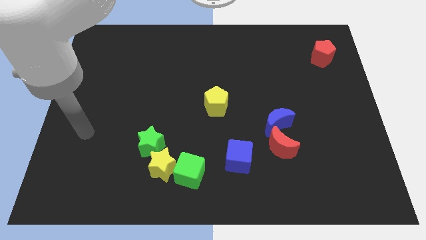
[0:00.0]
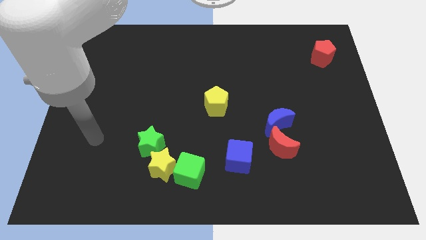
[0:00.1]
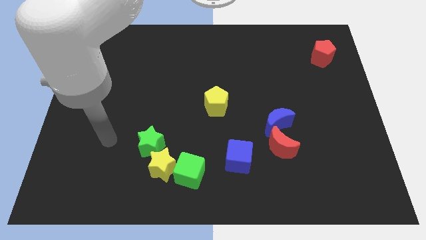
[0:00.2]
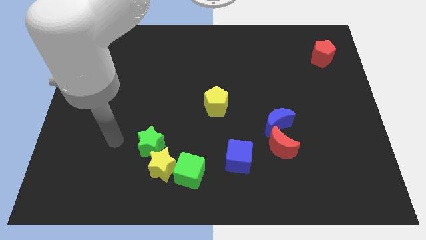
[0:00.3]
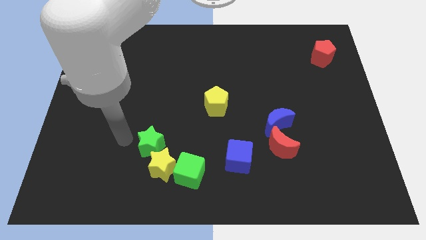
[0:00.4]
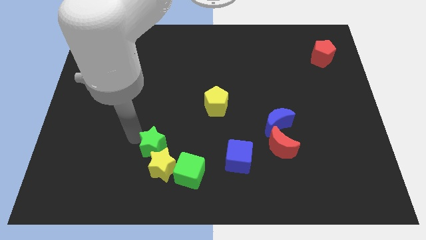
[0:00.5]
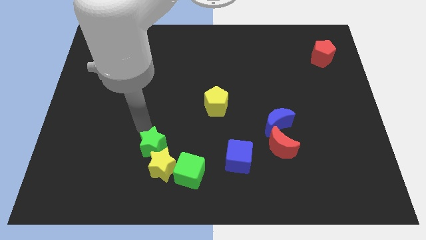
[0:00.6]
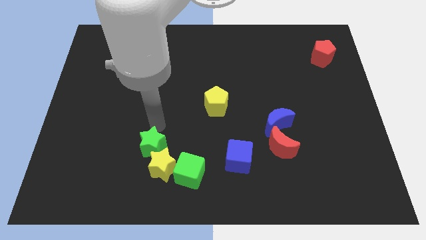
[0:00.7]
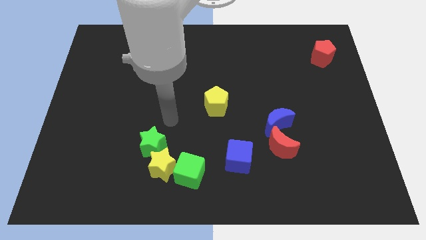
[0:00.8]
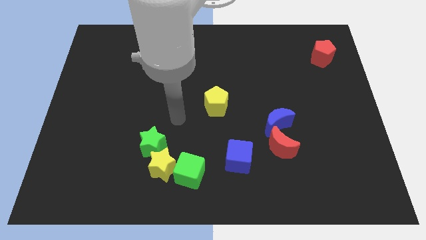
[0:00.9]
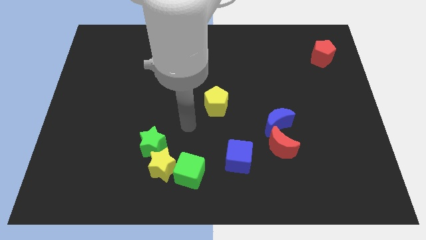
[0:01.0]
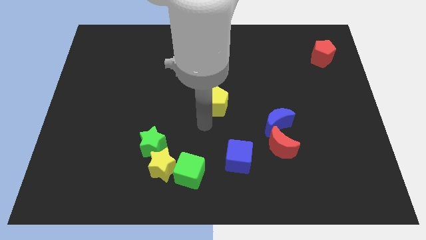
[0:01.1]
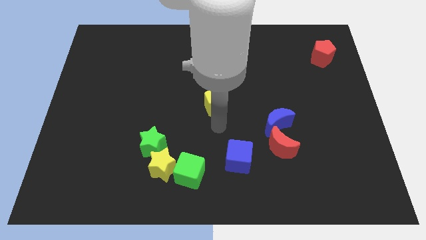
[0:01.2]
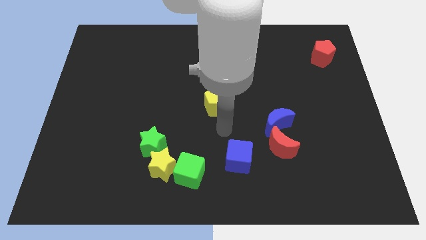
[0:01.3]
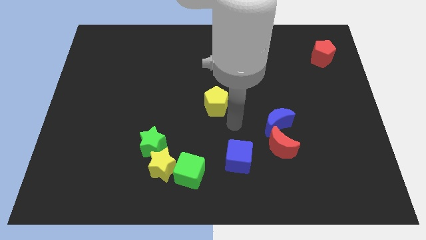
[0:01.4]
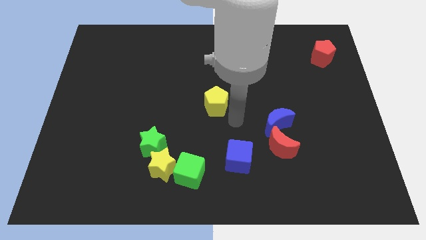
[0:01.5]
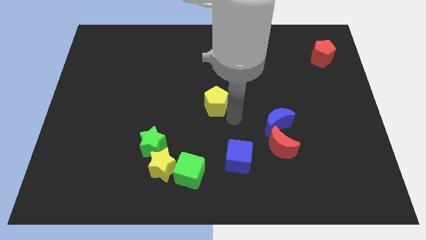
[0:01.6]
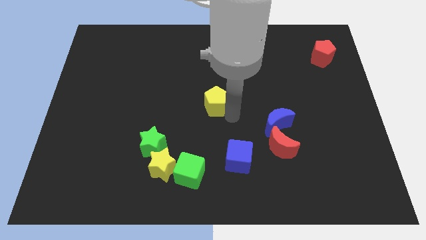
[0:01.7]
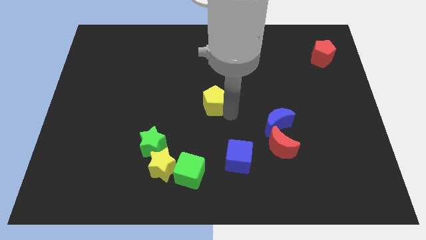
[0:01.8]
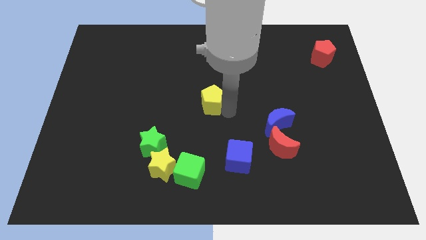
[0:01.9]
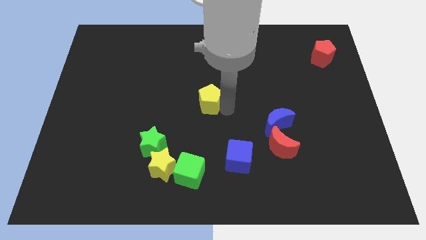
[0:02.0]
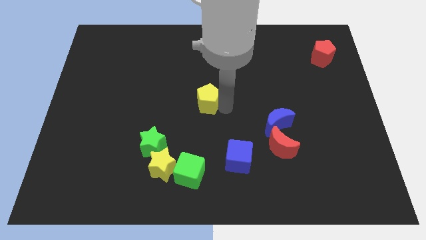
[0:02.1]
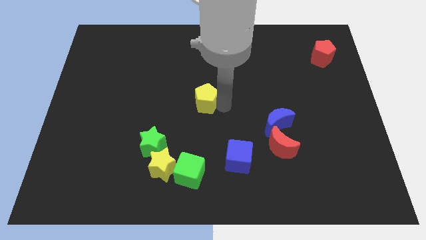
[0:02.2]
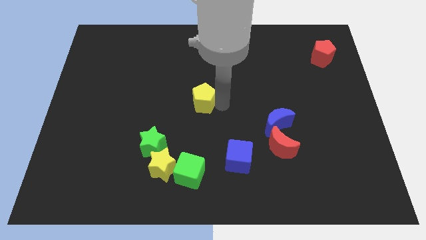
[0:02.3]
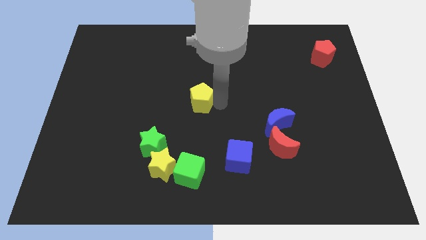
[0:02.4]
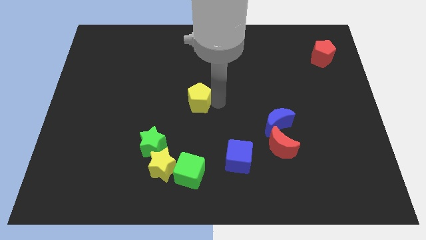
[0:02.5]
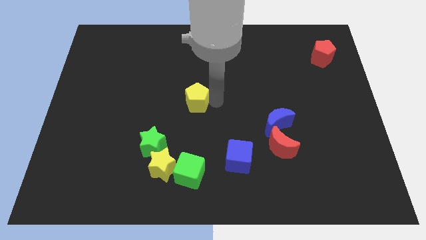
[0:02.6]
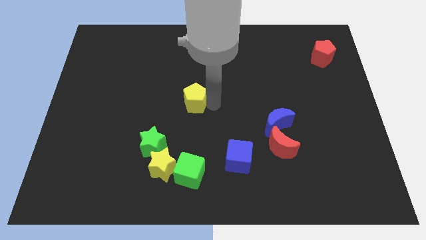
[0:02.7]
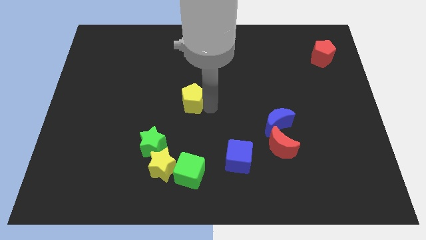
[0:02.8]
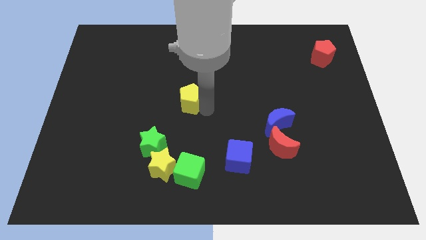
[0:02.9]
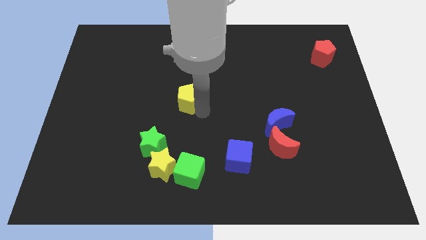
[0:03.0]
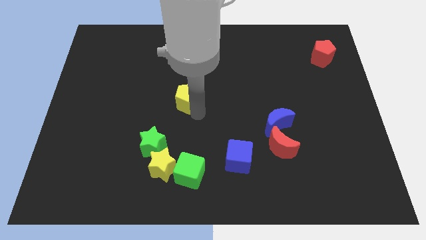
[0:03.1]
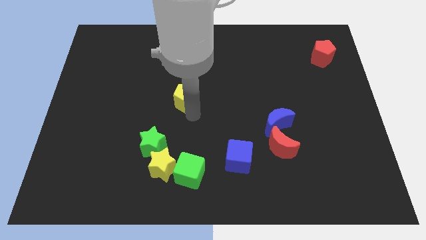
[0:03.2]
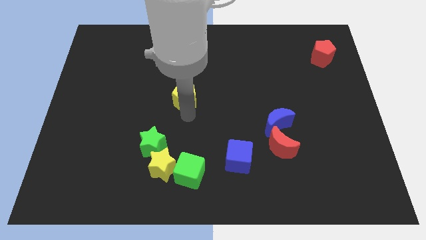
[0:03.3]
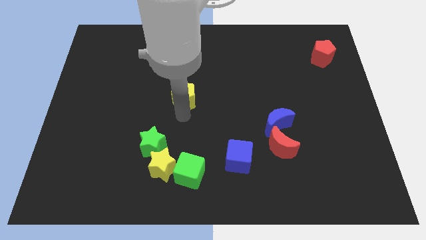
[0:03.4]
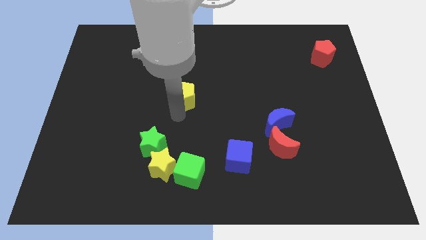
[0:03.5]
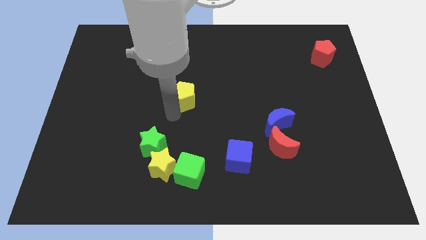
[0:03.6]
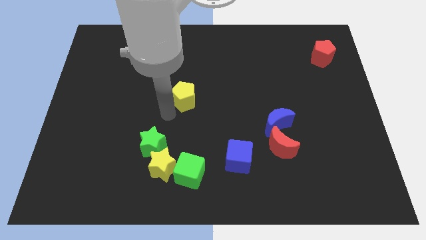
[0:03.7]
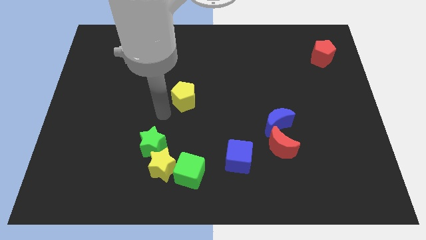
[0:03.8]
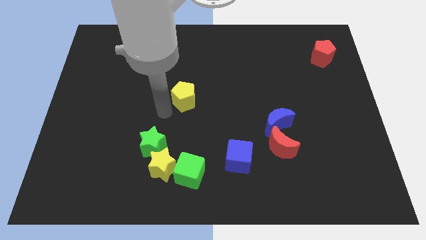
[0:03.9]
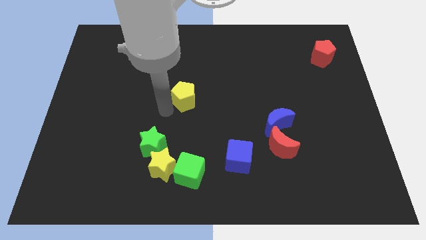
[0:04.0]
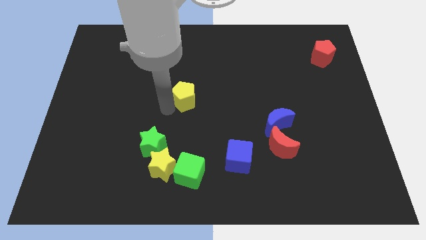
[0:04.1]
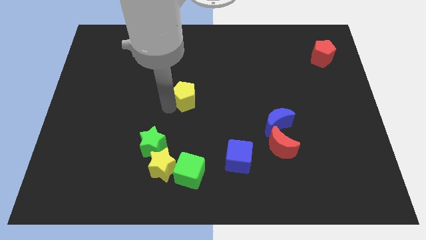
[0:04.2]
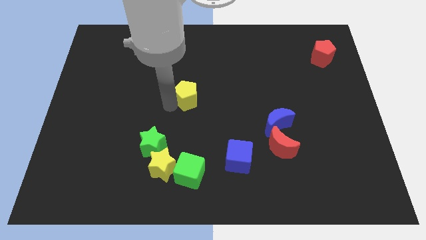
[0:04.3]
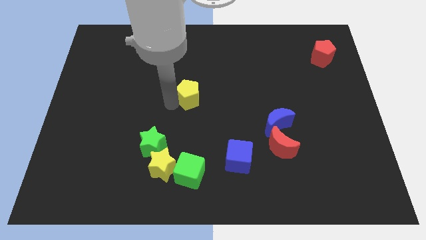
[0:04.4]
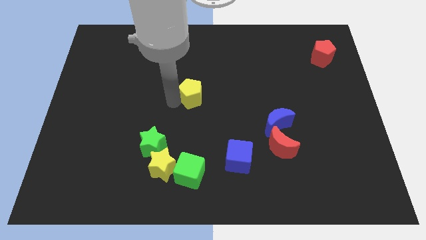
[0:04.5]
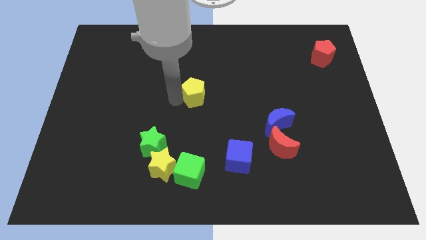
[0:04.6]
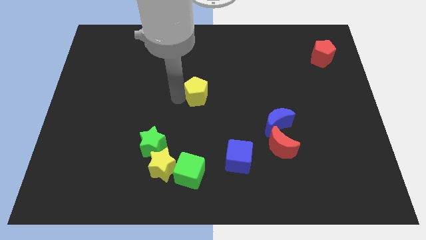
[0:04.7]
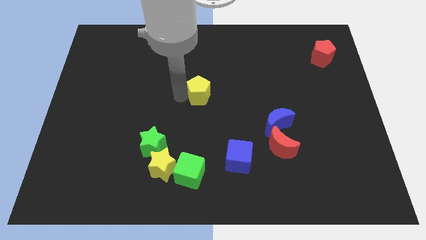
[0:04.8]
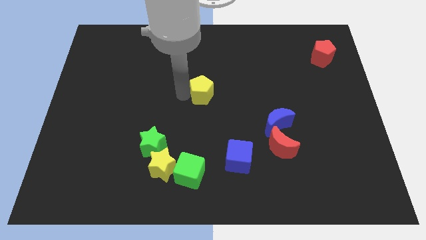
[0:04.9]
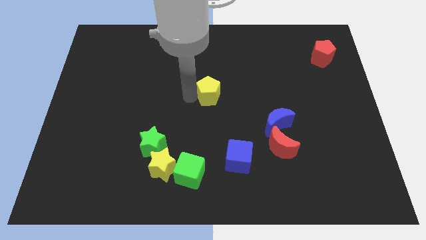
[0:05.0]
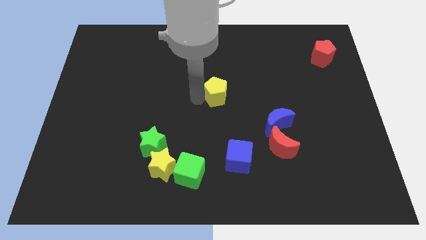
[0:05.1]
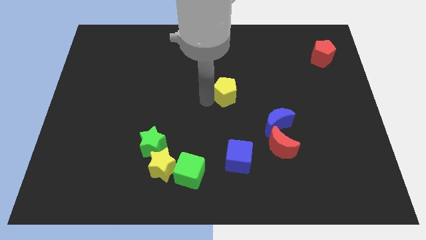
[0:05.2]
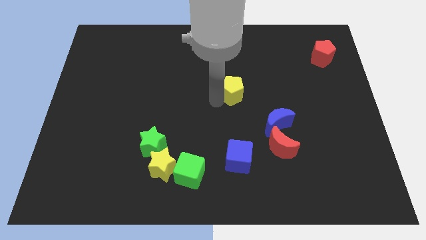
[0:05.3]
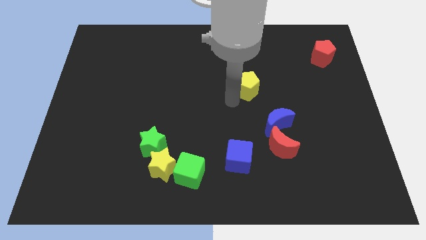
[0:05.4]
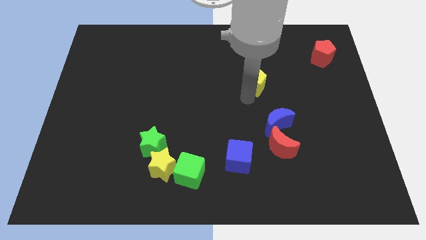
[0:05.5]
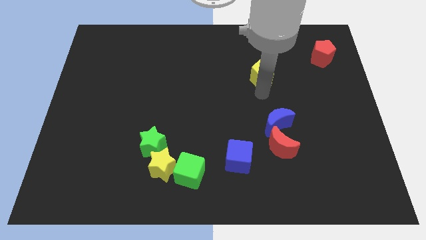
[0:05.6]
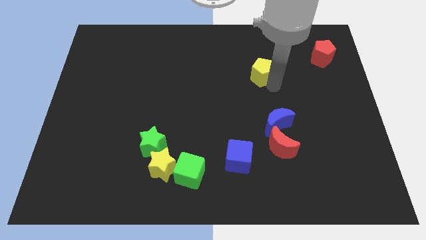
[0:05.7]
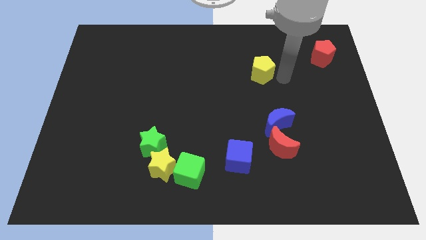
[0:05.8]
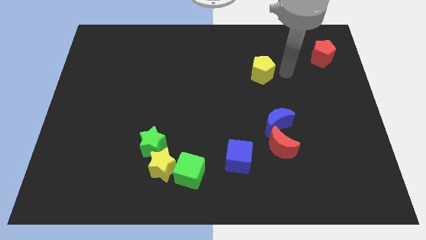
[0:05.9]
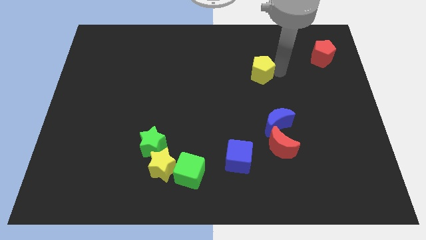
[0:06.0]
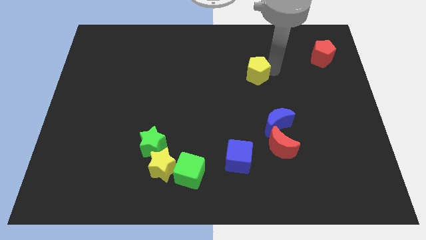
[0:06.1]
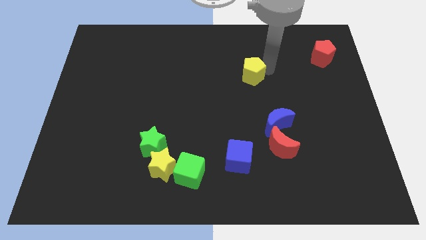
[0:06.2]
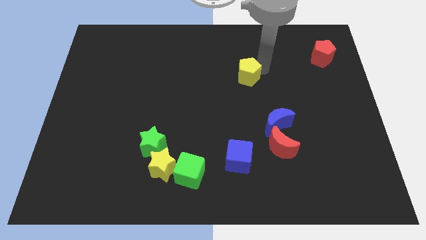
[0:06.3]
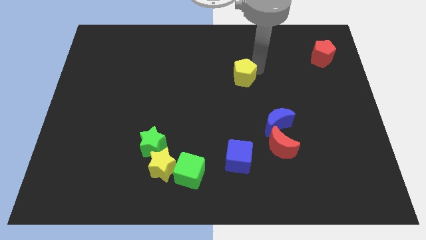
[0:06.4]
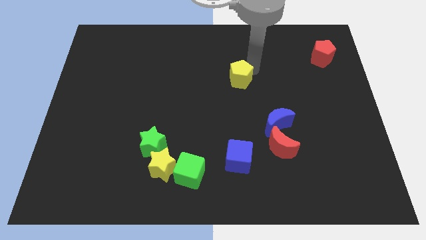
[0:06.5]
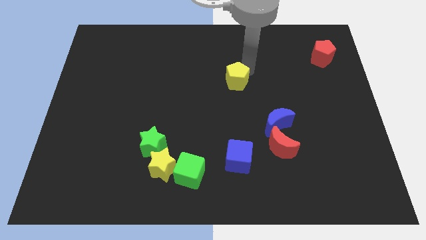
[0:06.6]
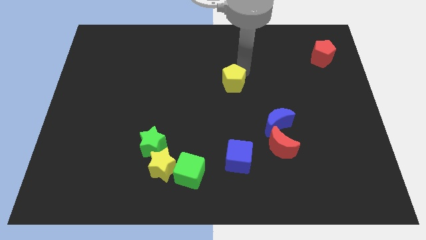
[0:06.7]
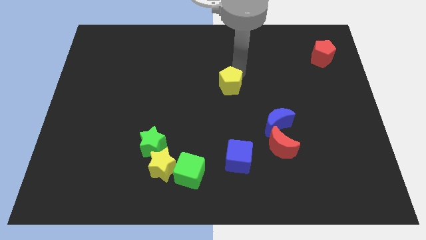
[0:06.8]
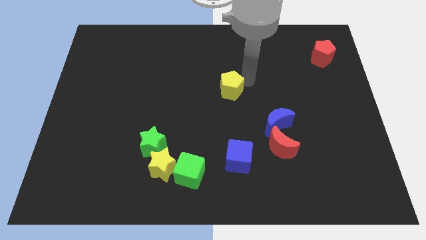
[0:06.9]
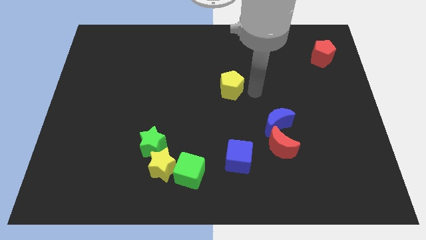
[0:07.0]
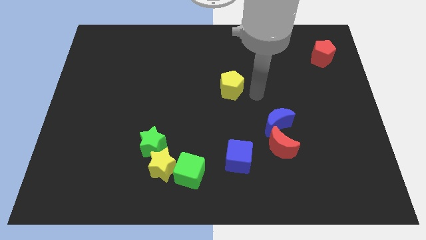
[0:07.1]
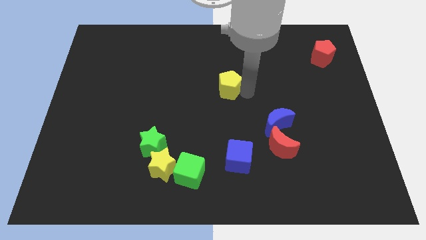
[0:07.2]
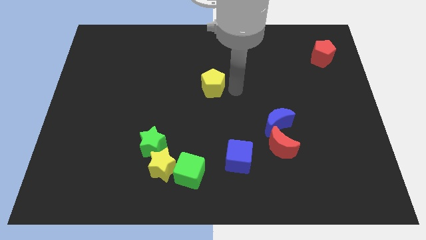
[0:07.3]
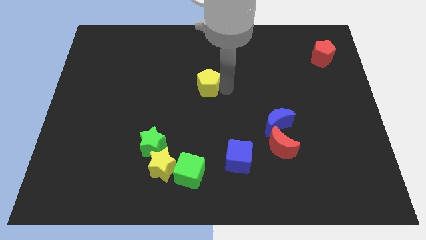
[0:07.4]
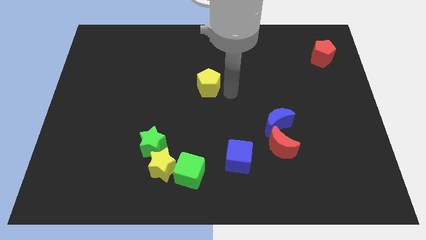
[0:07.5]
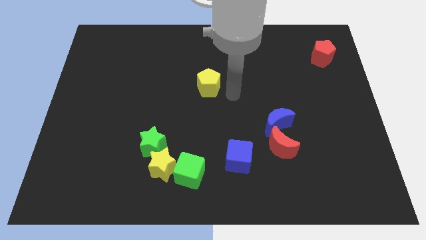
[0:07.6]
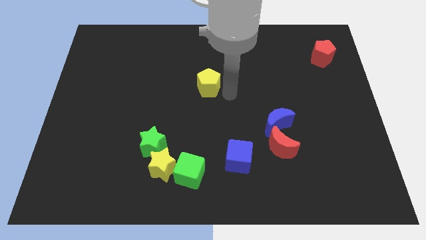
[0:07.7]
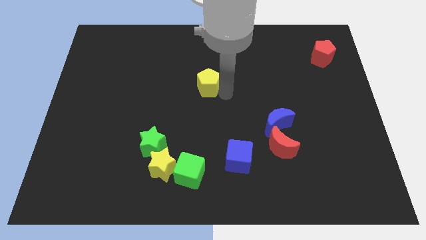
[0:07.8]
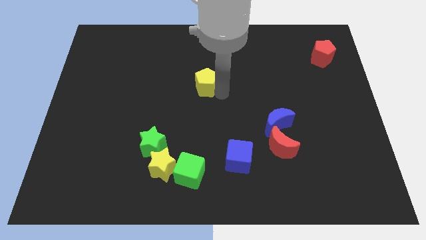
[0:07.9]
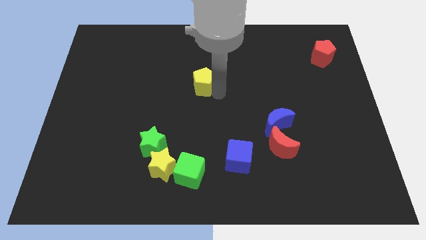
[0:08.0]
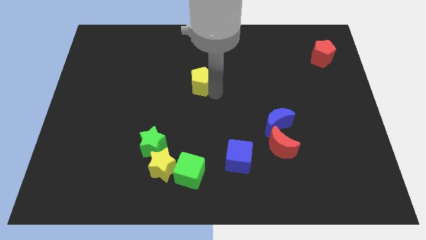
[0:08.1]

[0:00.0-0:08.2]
slightly push the yellow pentagon up and to the left
